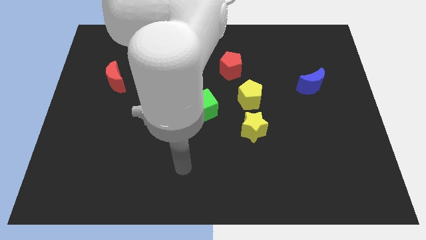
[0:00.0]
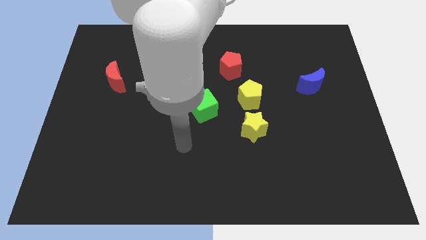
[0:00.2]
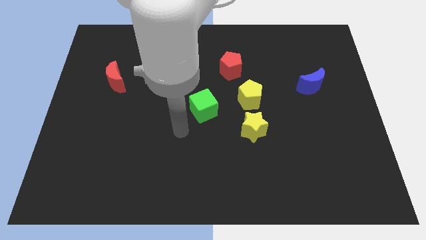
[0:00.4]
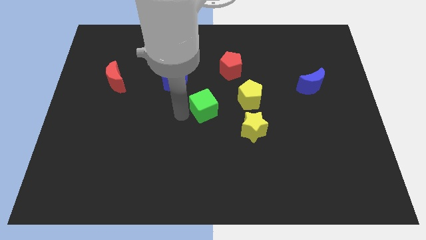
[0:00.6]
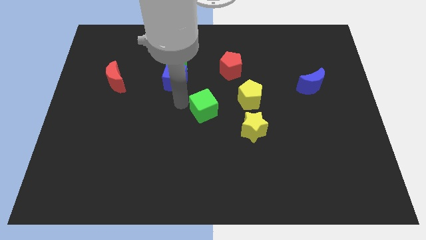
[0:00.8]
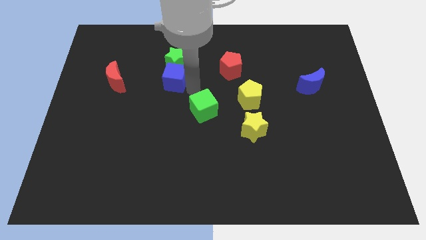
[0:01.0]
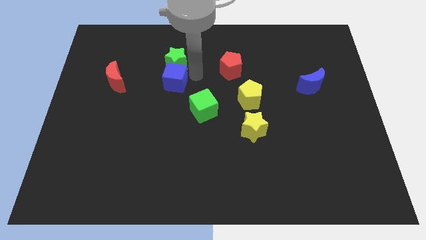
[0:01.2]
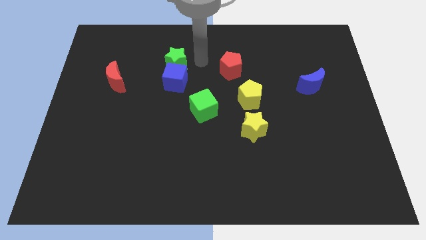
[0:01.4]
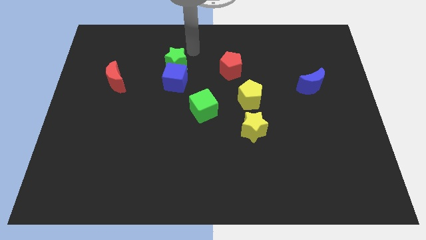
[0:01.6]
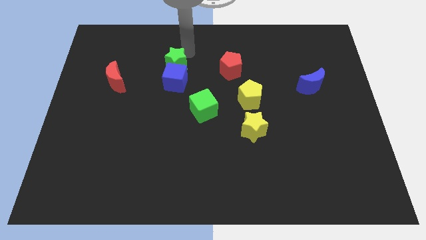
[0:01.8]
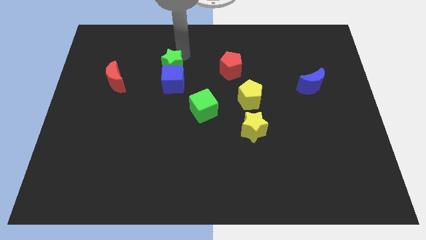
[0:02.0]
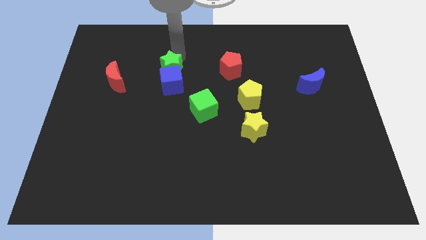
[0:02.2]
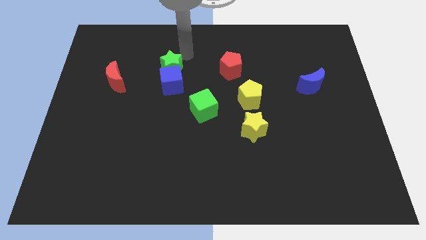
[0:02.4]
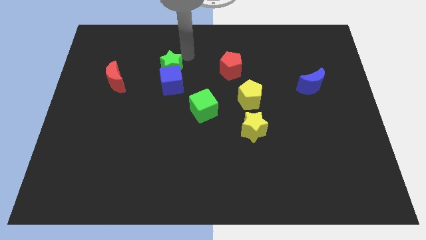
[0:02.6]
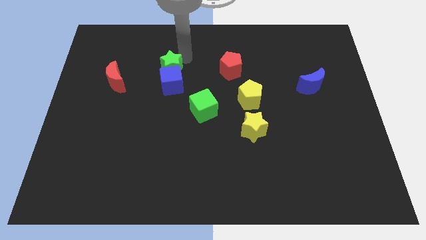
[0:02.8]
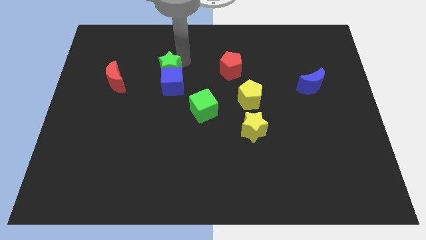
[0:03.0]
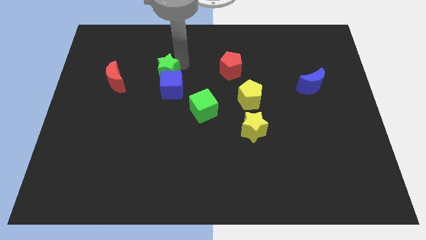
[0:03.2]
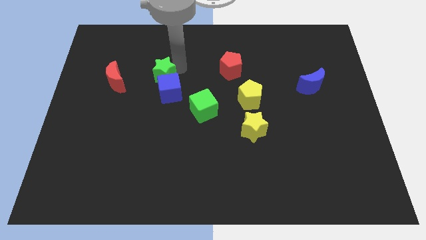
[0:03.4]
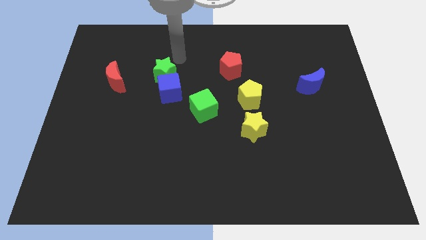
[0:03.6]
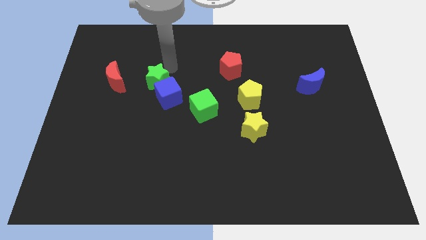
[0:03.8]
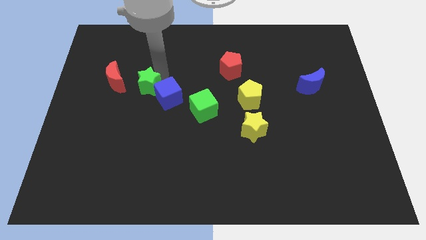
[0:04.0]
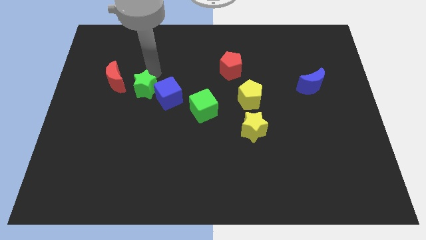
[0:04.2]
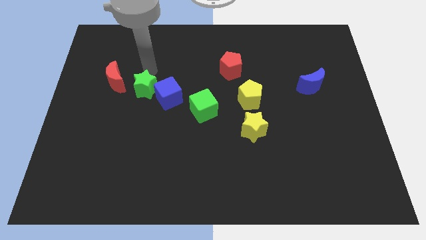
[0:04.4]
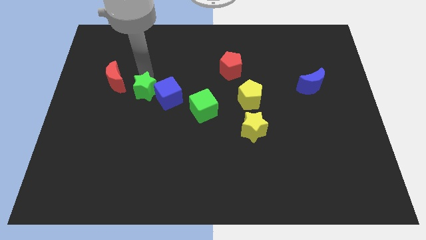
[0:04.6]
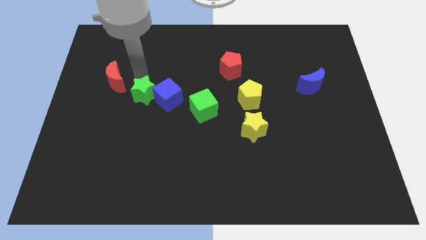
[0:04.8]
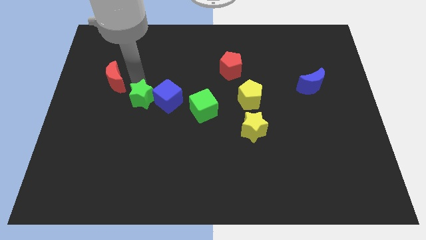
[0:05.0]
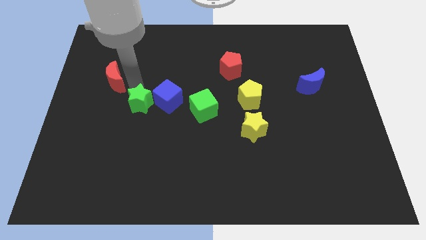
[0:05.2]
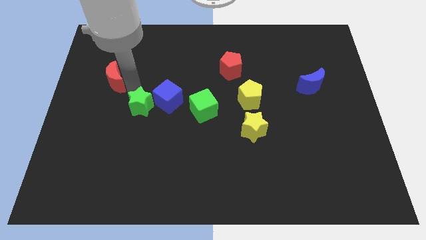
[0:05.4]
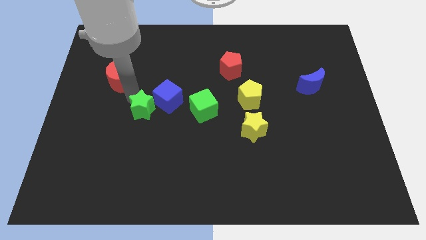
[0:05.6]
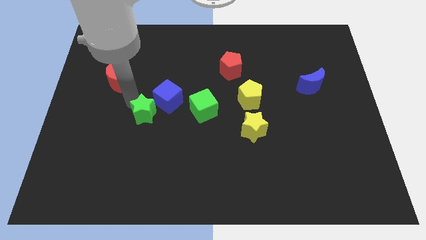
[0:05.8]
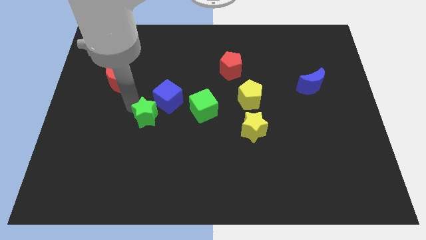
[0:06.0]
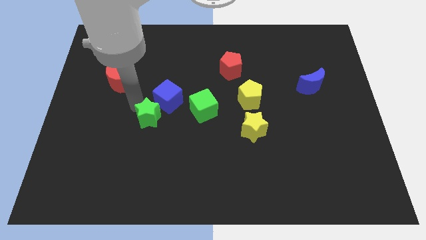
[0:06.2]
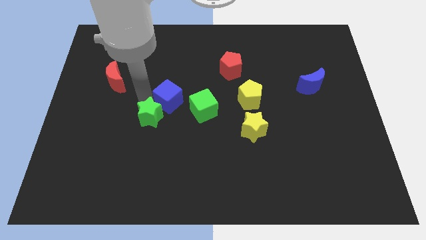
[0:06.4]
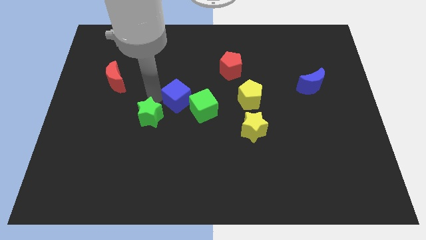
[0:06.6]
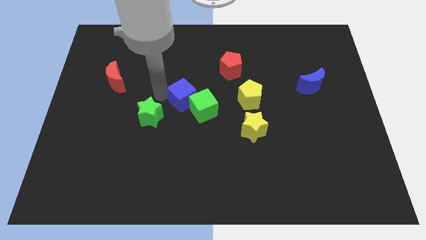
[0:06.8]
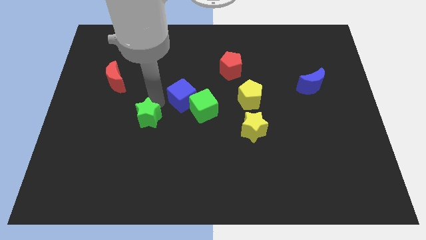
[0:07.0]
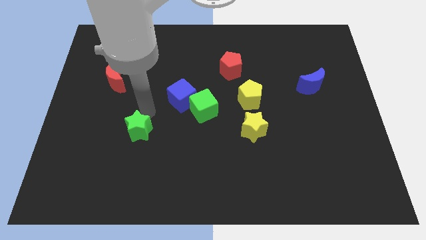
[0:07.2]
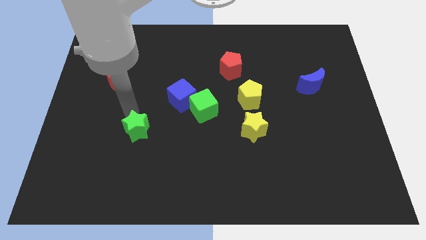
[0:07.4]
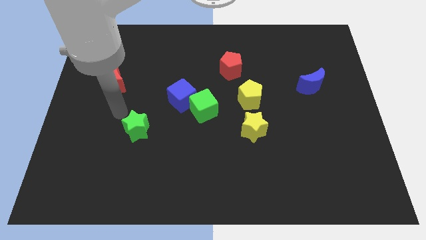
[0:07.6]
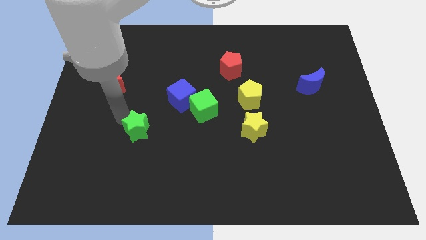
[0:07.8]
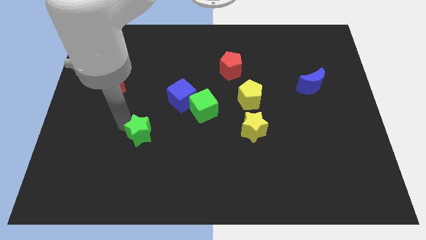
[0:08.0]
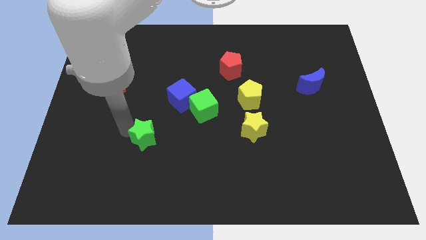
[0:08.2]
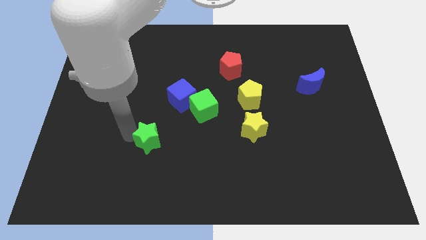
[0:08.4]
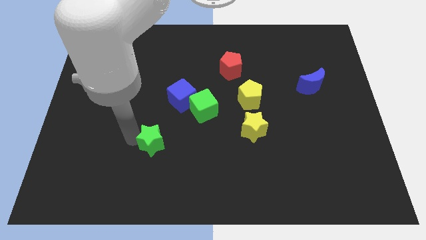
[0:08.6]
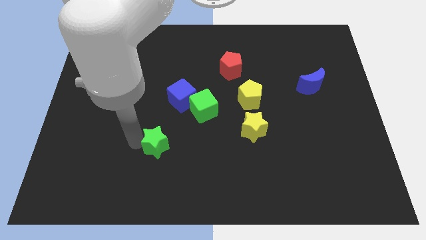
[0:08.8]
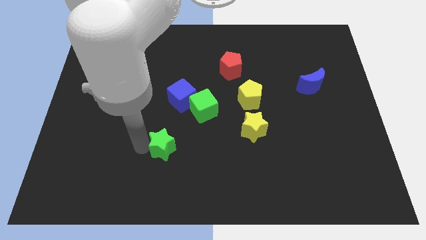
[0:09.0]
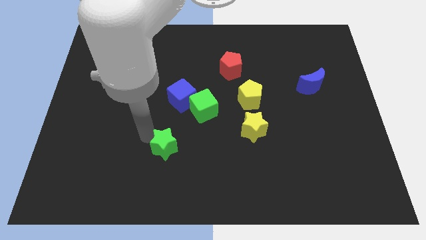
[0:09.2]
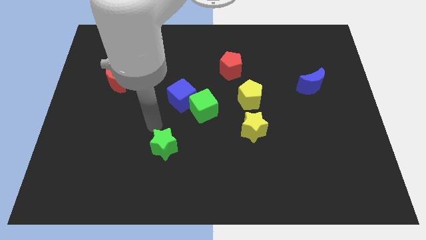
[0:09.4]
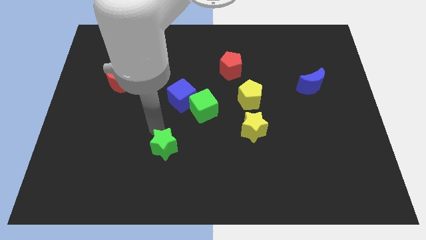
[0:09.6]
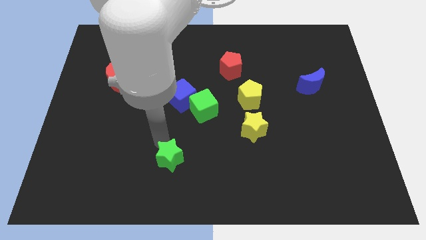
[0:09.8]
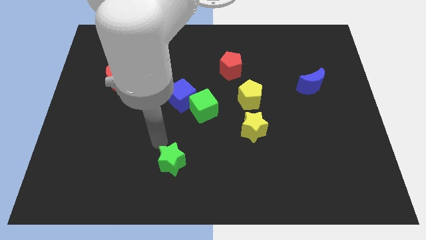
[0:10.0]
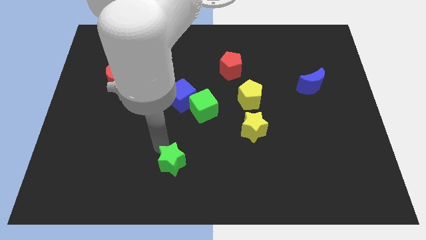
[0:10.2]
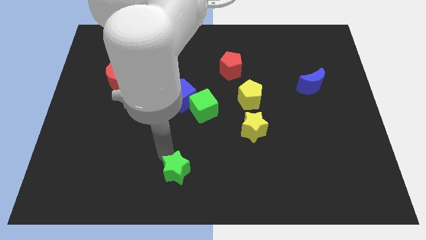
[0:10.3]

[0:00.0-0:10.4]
move the green star to the bottom

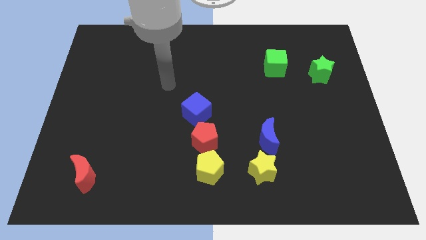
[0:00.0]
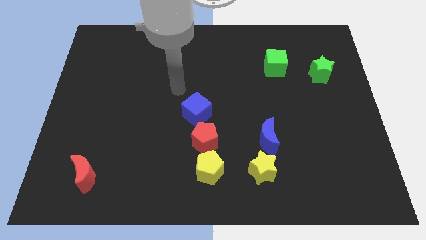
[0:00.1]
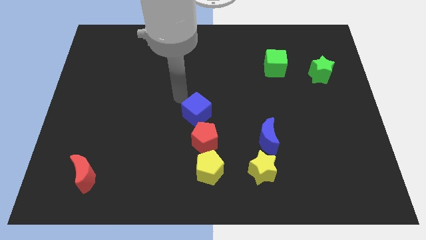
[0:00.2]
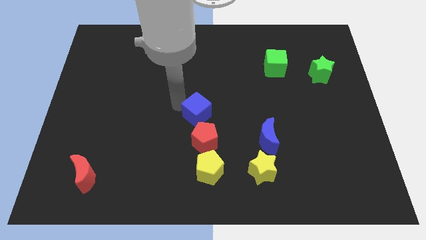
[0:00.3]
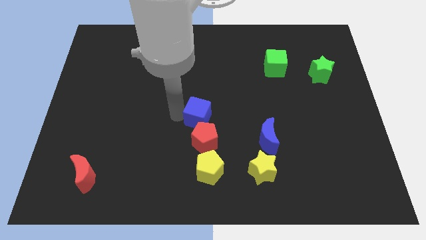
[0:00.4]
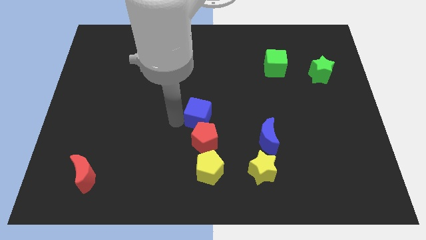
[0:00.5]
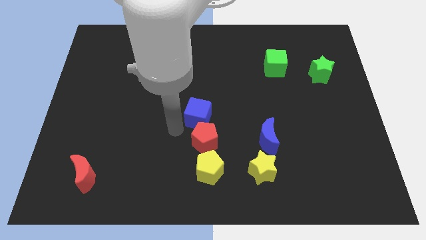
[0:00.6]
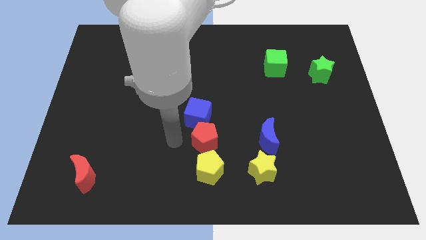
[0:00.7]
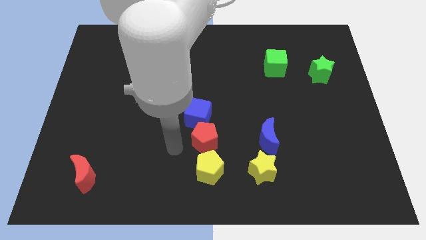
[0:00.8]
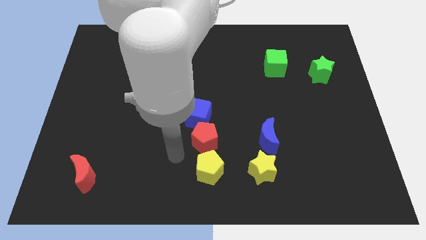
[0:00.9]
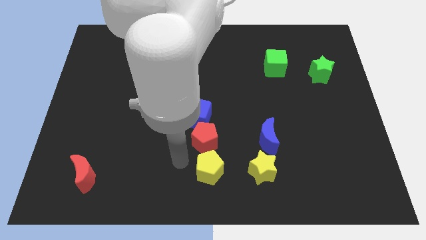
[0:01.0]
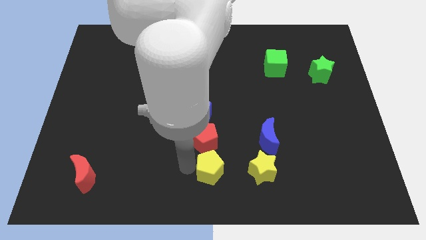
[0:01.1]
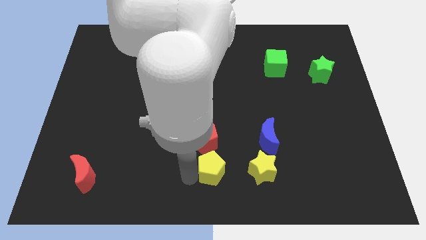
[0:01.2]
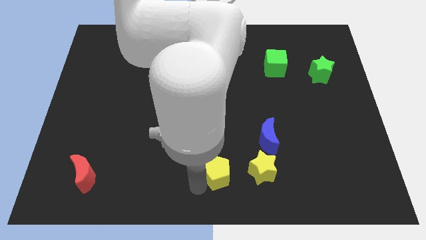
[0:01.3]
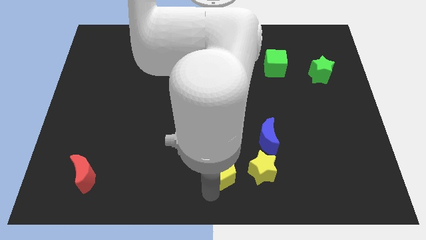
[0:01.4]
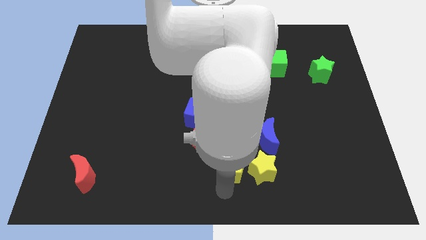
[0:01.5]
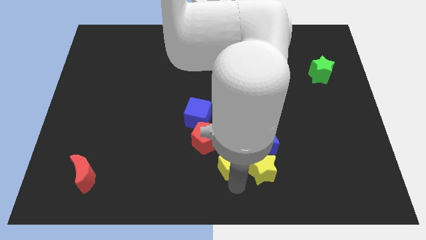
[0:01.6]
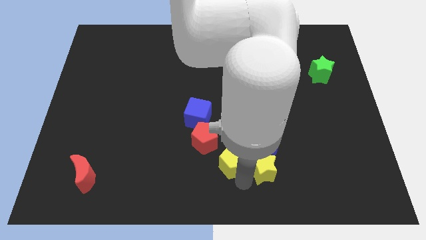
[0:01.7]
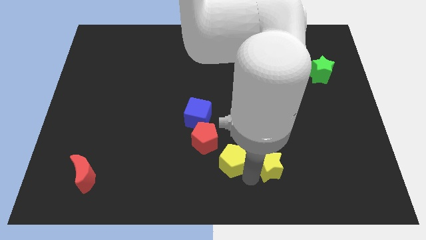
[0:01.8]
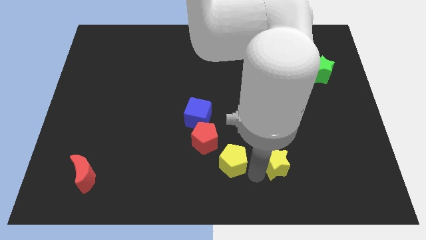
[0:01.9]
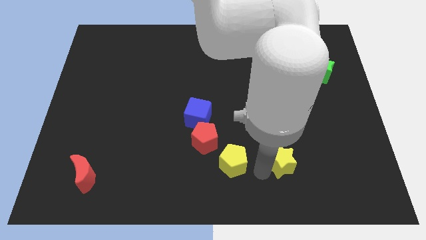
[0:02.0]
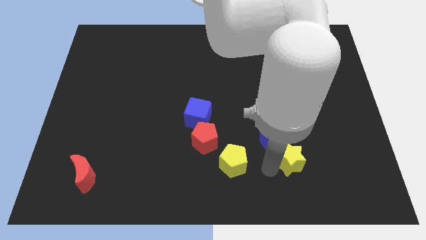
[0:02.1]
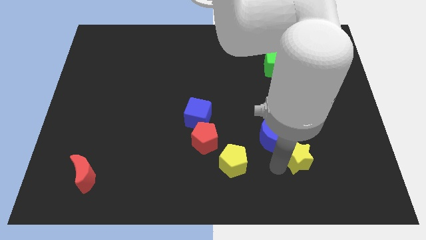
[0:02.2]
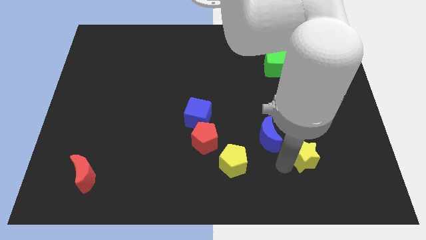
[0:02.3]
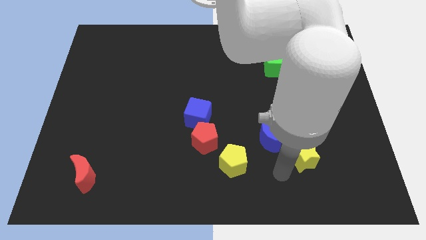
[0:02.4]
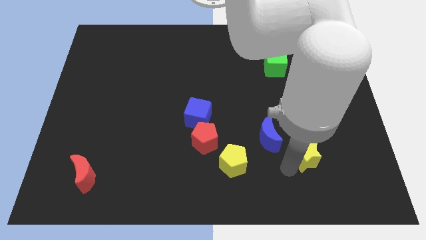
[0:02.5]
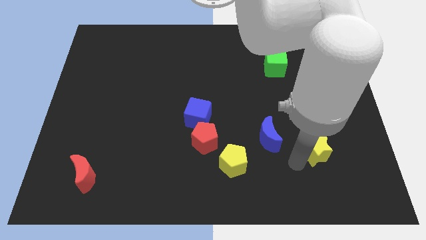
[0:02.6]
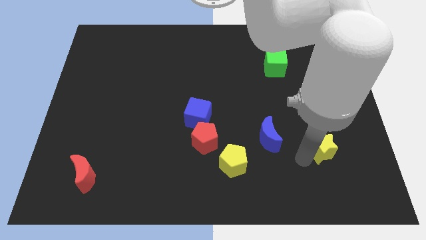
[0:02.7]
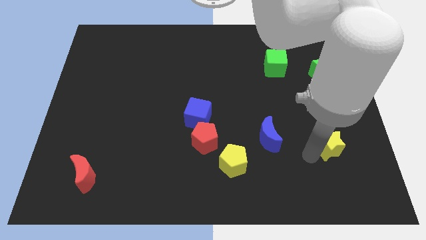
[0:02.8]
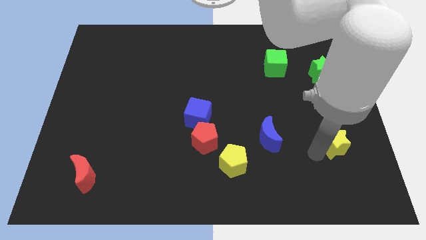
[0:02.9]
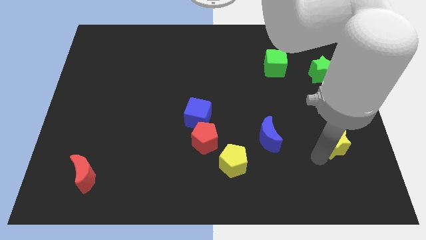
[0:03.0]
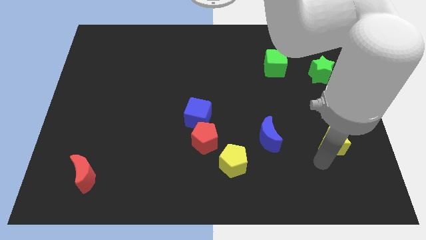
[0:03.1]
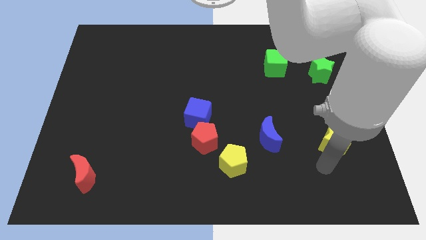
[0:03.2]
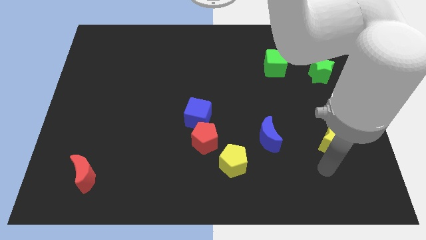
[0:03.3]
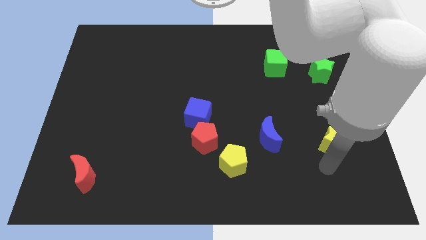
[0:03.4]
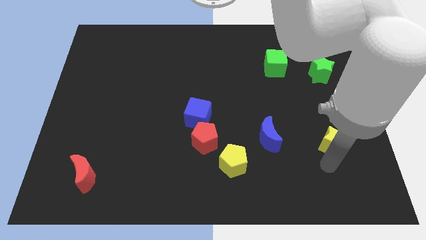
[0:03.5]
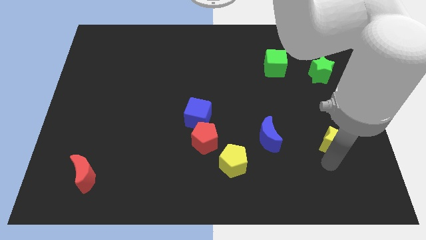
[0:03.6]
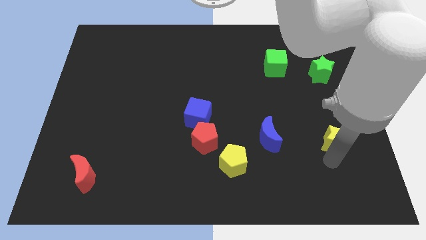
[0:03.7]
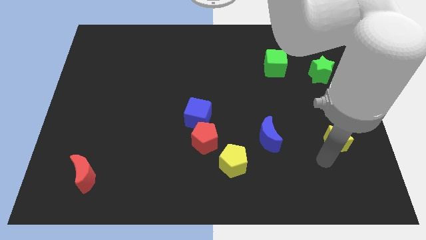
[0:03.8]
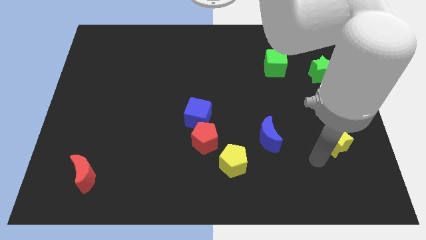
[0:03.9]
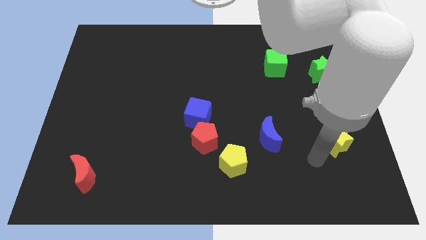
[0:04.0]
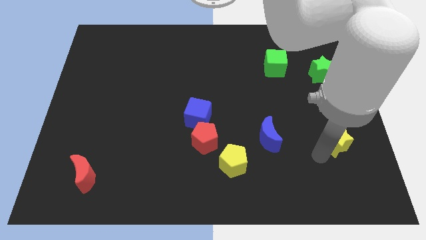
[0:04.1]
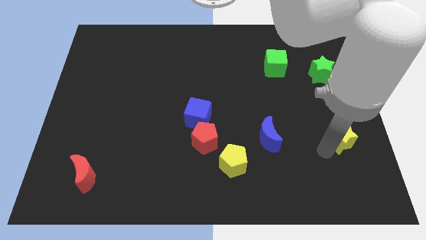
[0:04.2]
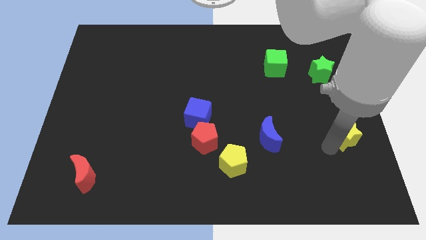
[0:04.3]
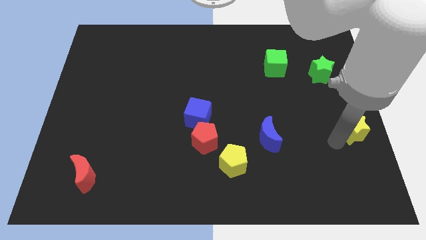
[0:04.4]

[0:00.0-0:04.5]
push the yellow star to the right side
